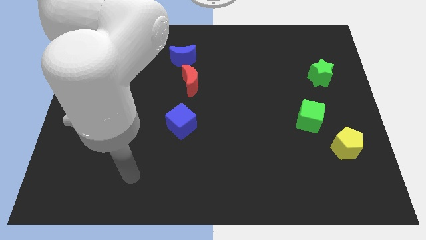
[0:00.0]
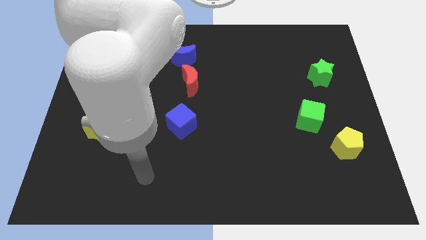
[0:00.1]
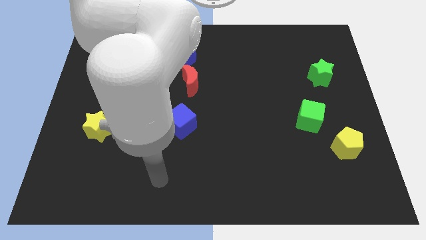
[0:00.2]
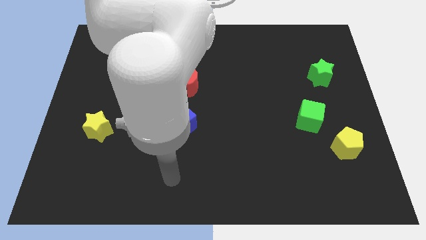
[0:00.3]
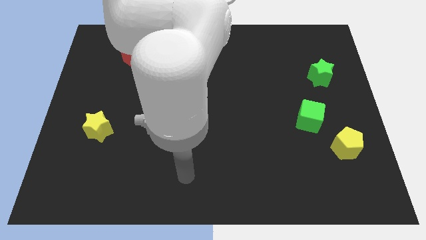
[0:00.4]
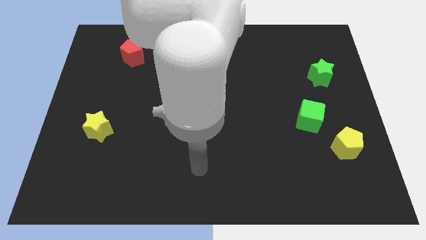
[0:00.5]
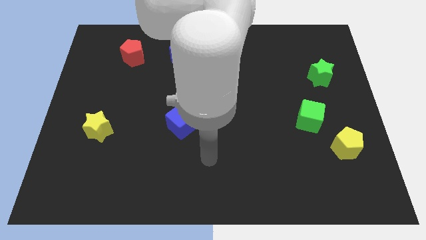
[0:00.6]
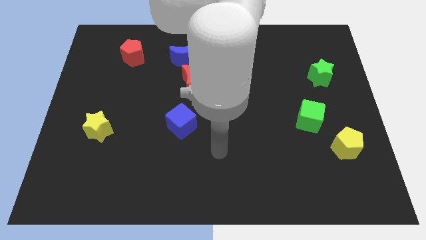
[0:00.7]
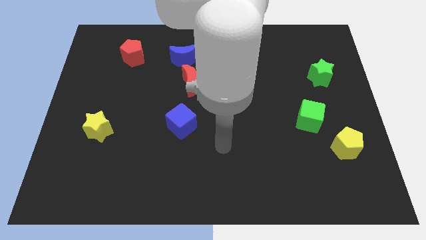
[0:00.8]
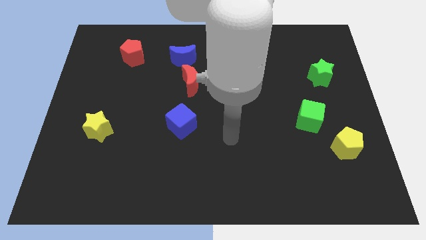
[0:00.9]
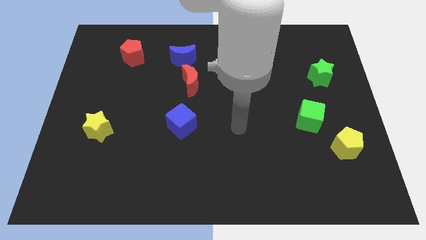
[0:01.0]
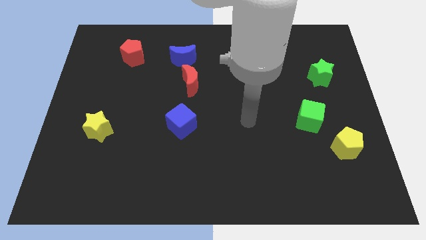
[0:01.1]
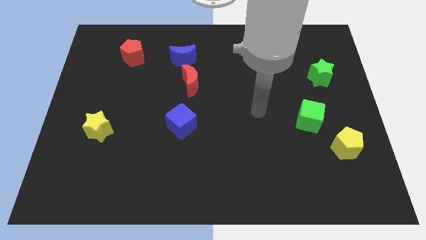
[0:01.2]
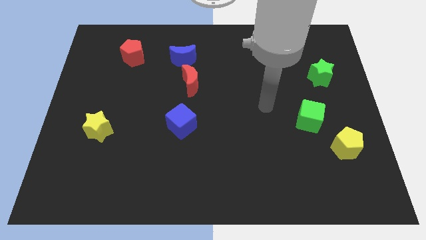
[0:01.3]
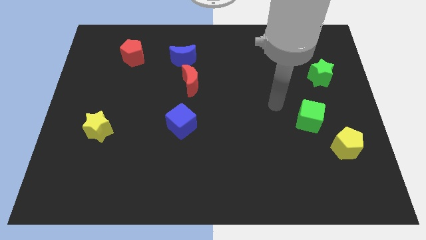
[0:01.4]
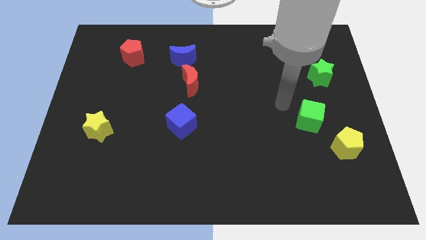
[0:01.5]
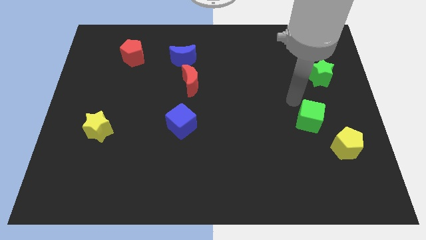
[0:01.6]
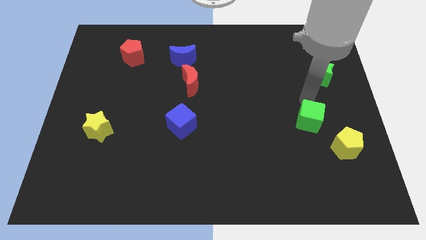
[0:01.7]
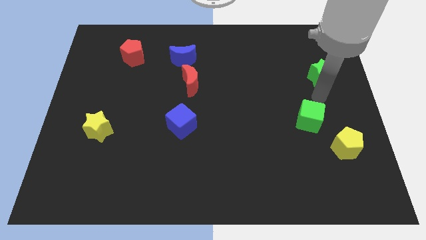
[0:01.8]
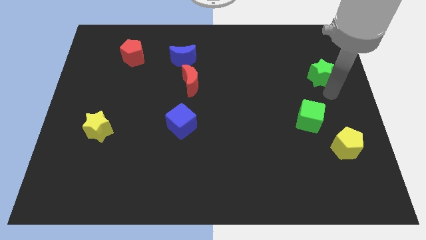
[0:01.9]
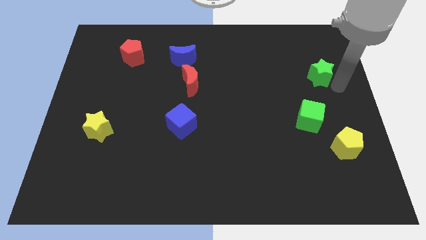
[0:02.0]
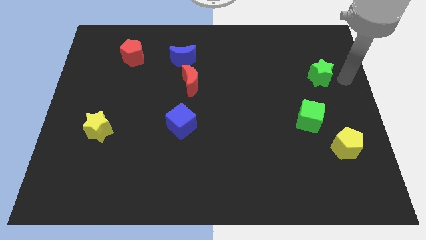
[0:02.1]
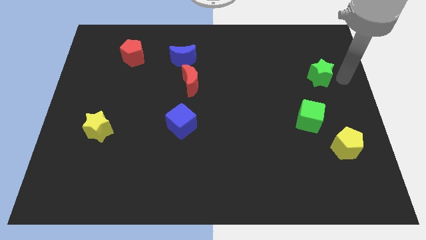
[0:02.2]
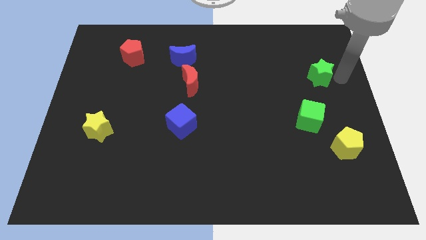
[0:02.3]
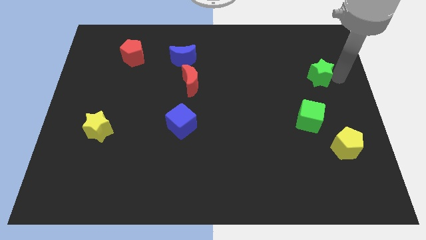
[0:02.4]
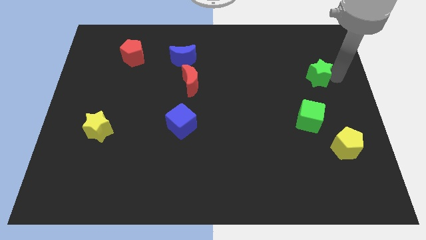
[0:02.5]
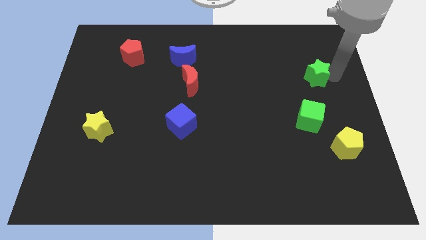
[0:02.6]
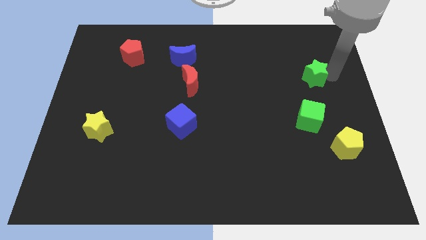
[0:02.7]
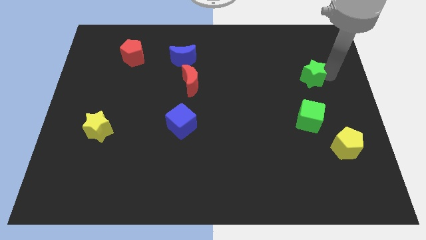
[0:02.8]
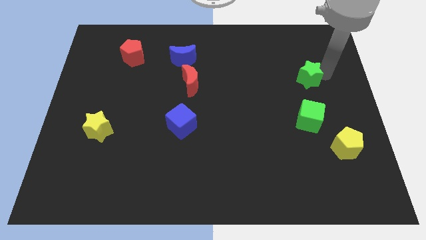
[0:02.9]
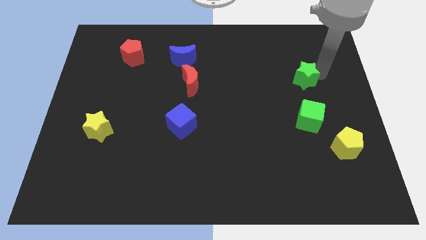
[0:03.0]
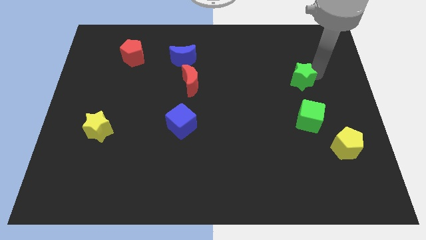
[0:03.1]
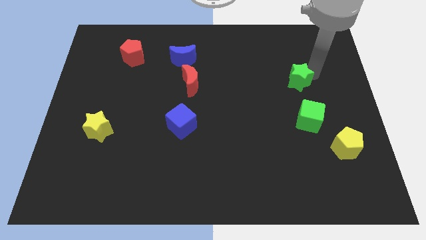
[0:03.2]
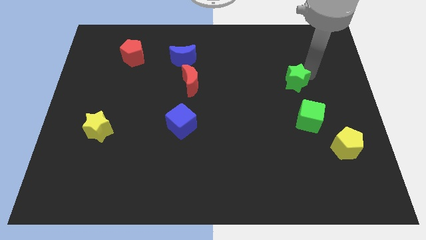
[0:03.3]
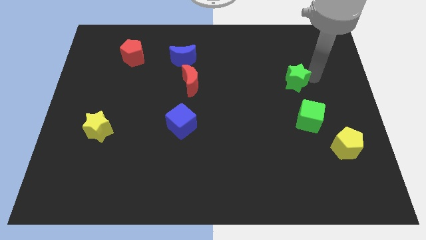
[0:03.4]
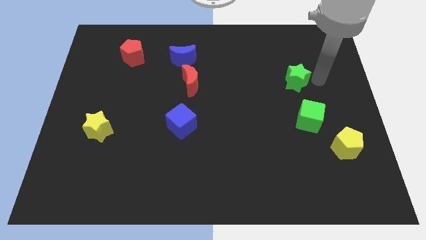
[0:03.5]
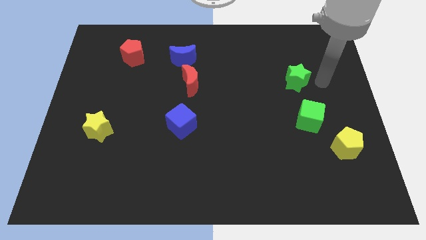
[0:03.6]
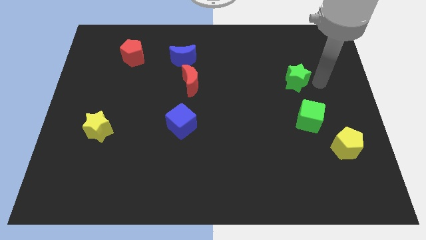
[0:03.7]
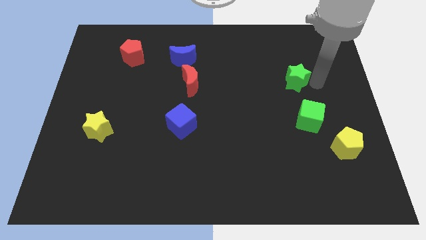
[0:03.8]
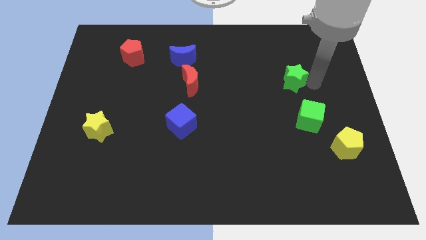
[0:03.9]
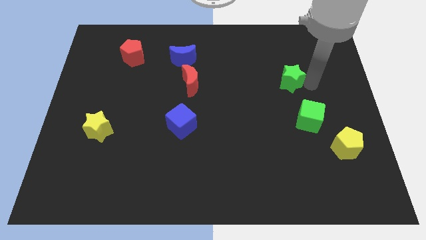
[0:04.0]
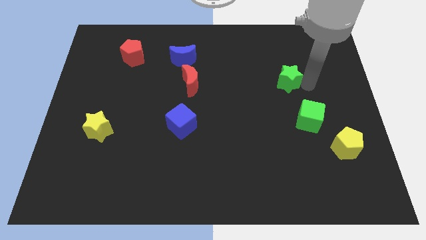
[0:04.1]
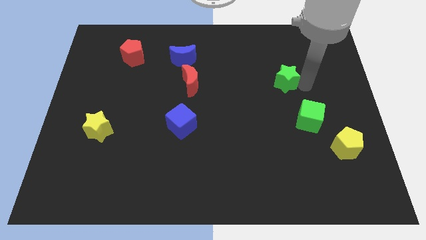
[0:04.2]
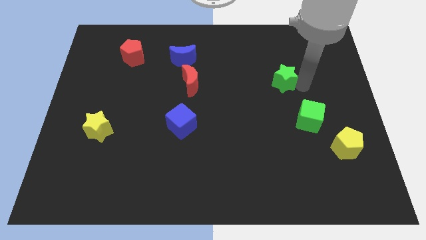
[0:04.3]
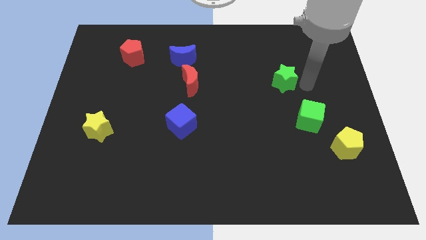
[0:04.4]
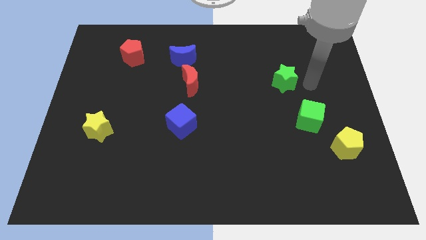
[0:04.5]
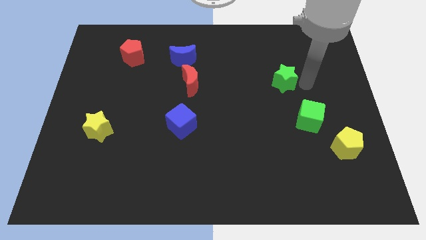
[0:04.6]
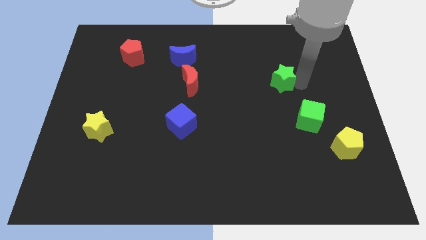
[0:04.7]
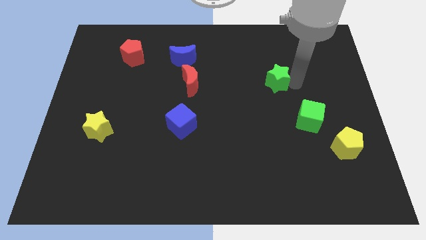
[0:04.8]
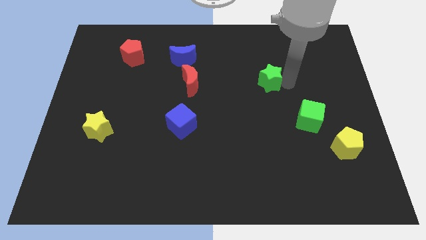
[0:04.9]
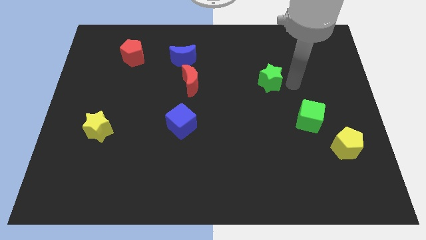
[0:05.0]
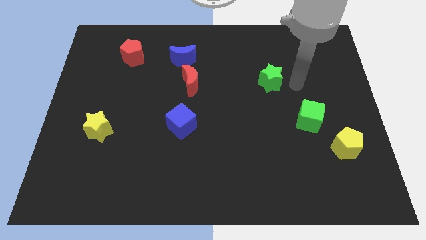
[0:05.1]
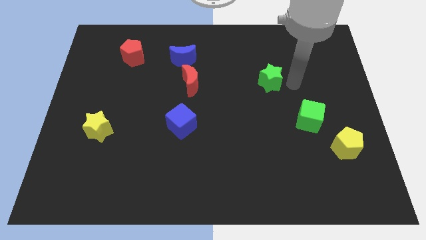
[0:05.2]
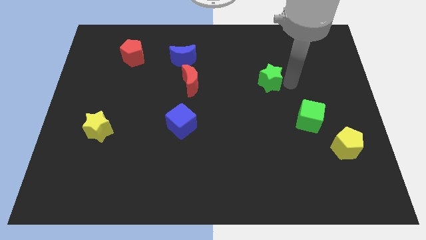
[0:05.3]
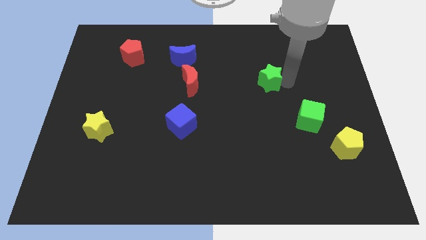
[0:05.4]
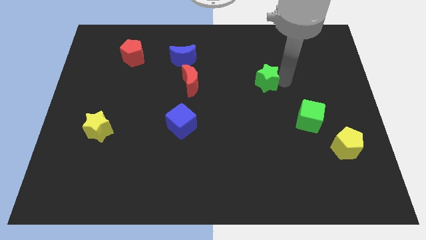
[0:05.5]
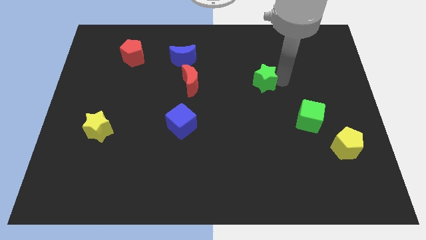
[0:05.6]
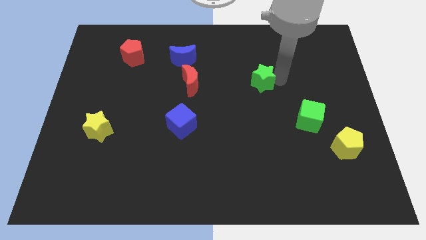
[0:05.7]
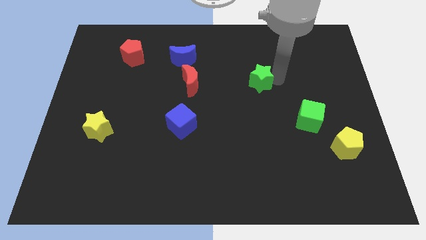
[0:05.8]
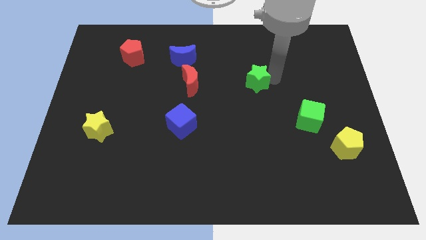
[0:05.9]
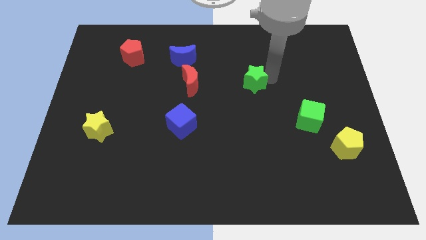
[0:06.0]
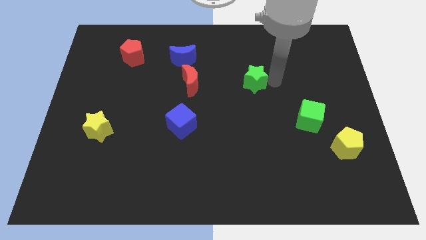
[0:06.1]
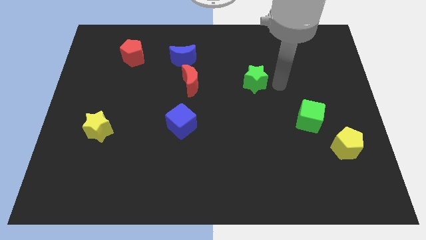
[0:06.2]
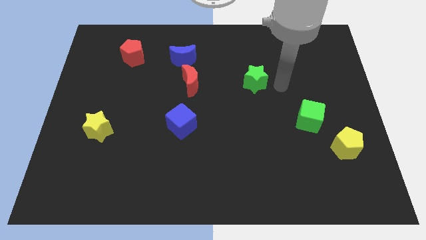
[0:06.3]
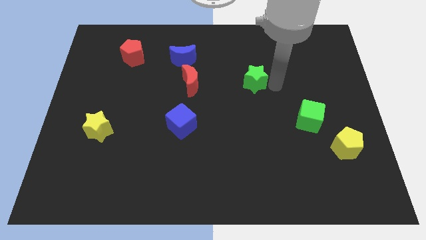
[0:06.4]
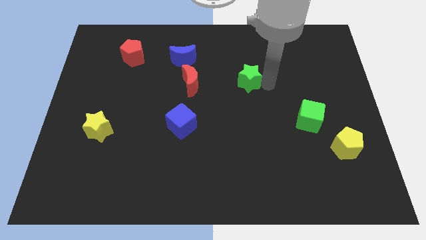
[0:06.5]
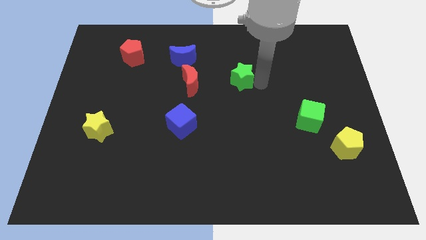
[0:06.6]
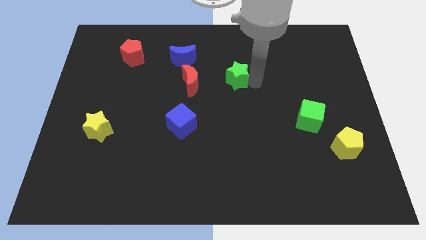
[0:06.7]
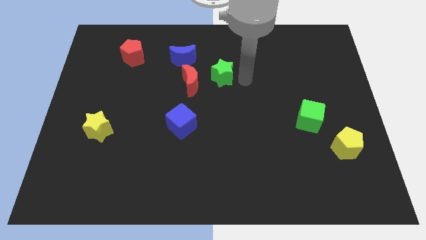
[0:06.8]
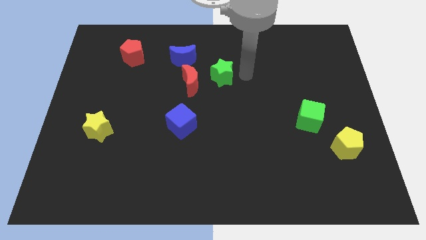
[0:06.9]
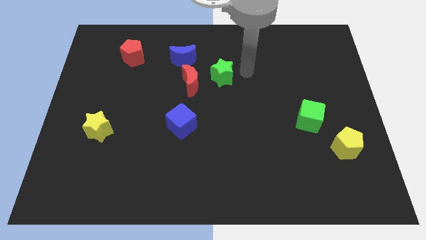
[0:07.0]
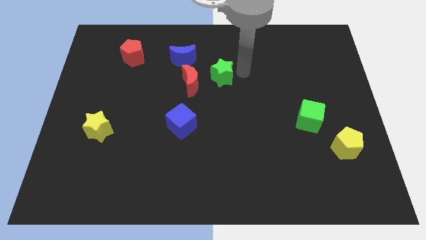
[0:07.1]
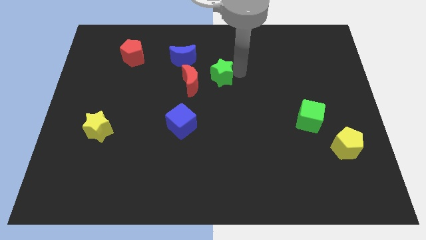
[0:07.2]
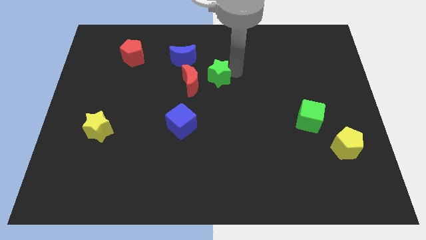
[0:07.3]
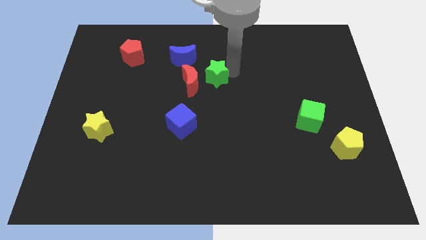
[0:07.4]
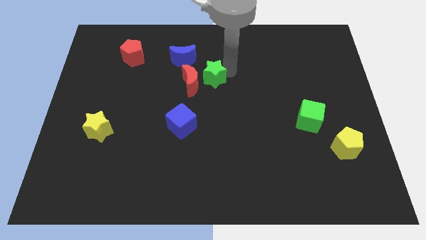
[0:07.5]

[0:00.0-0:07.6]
push the green star to the red moon

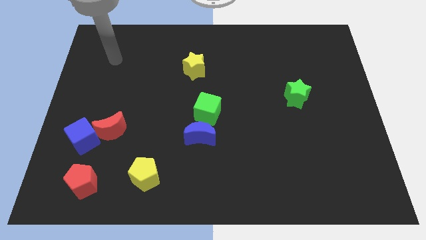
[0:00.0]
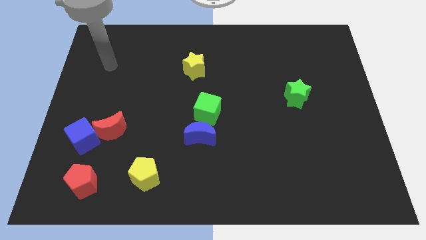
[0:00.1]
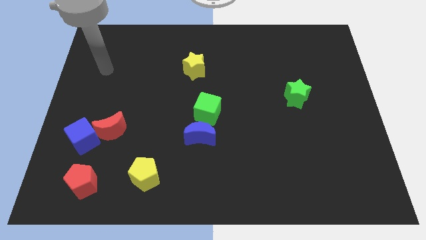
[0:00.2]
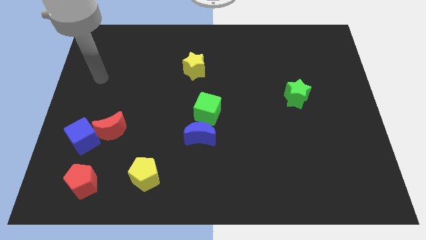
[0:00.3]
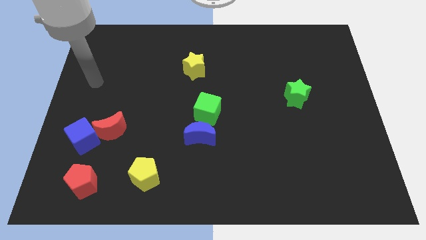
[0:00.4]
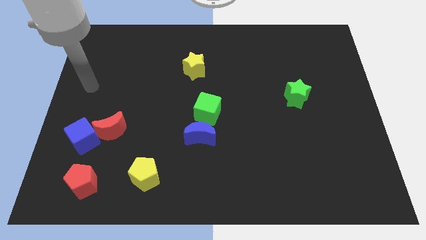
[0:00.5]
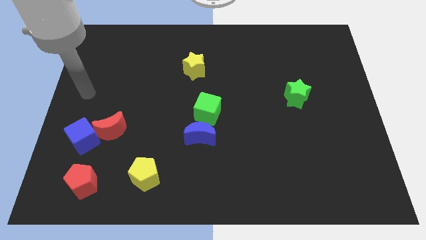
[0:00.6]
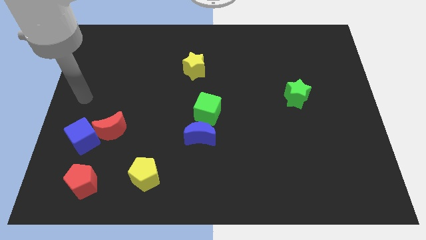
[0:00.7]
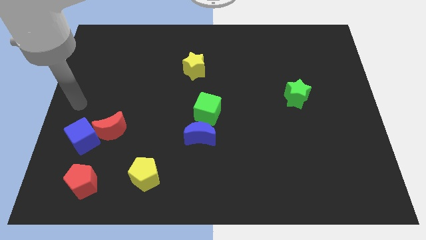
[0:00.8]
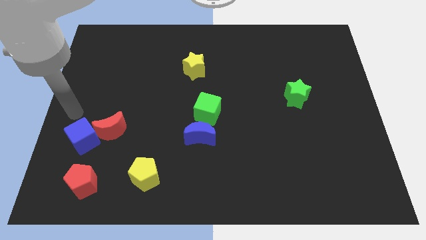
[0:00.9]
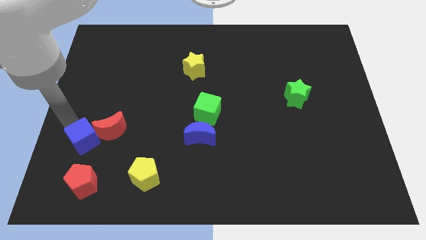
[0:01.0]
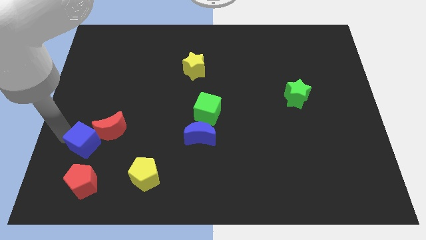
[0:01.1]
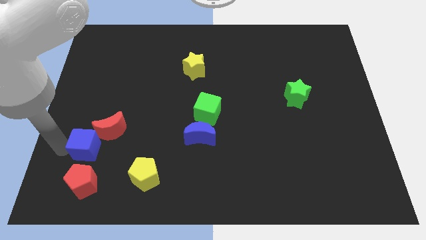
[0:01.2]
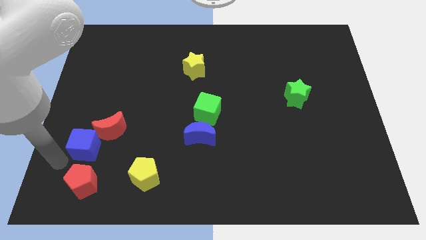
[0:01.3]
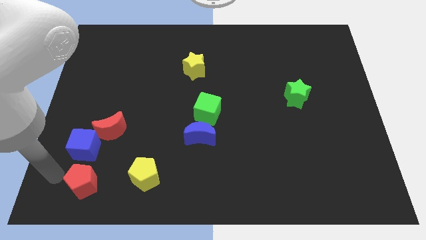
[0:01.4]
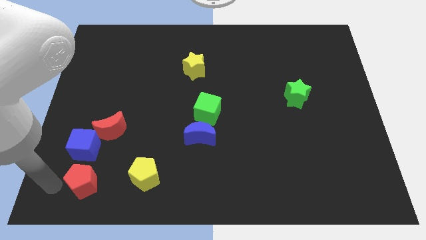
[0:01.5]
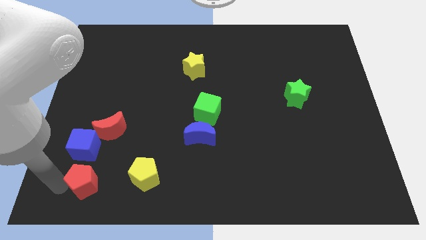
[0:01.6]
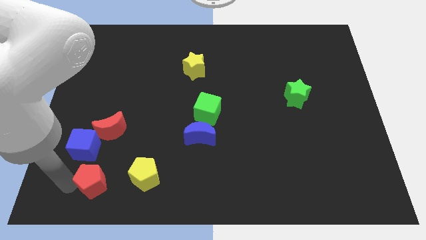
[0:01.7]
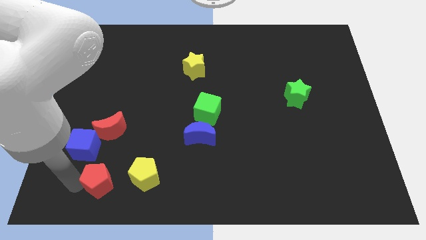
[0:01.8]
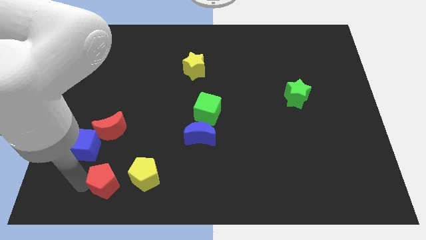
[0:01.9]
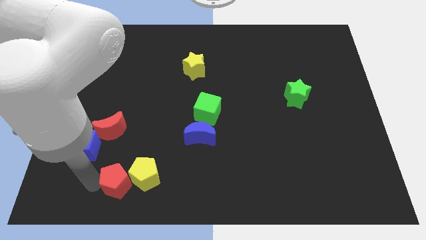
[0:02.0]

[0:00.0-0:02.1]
put the red pentagon next to the yellow pentagon
